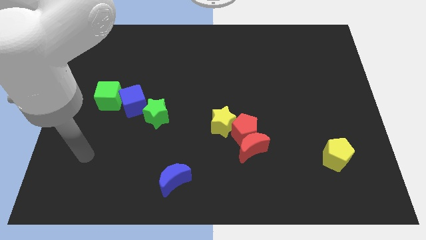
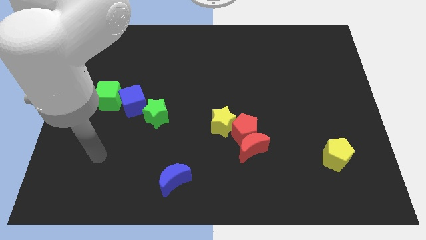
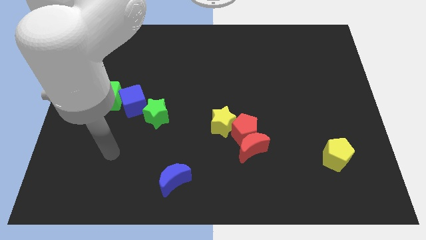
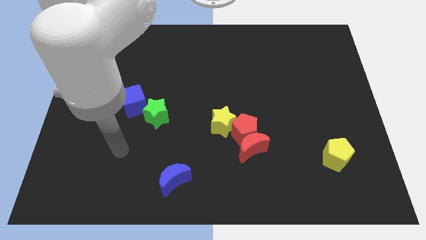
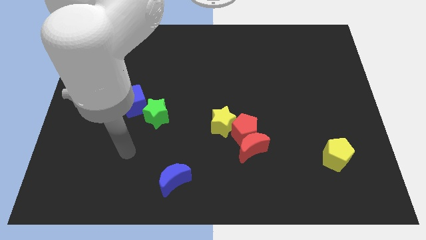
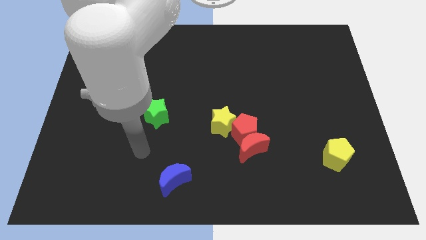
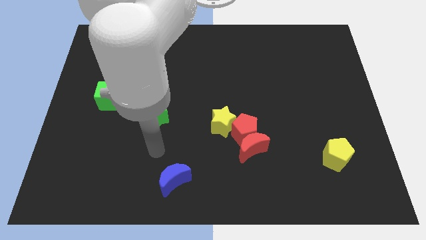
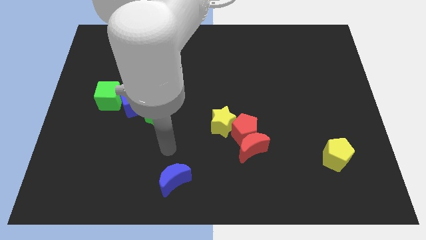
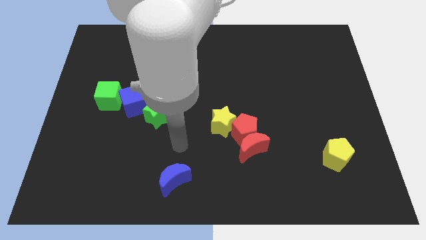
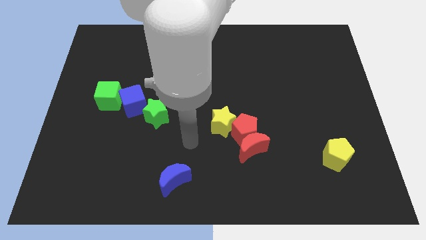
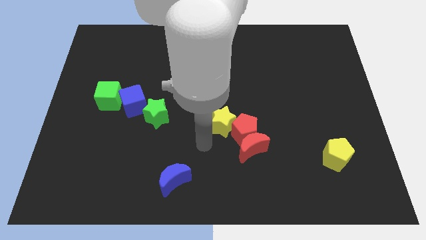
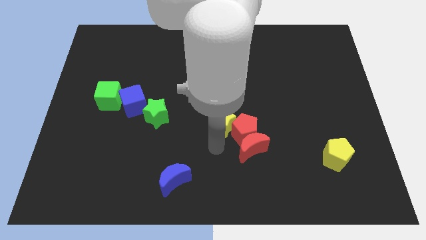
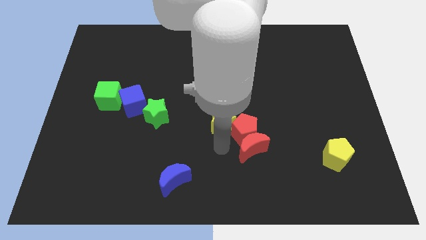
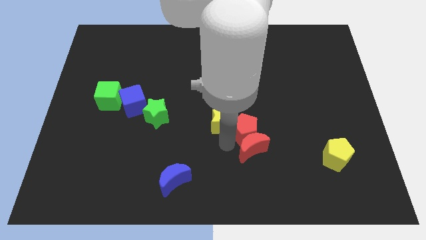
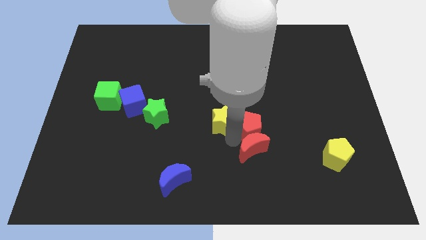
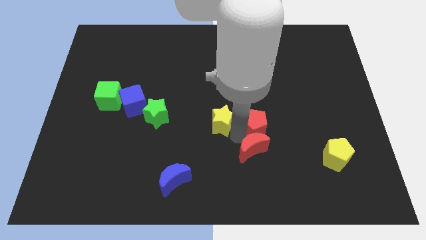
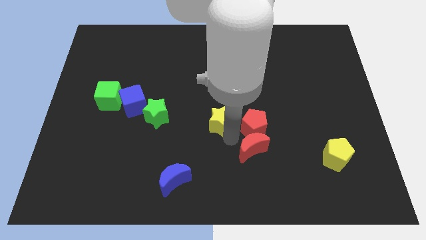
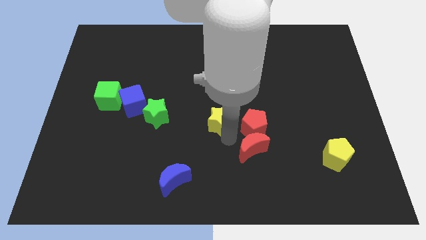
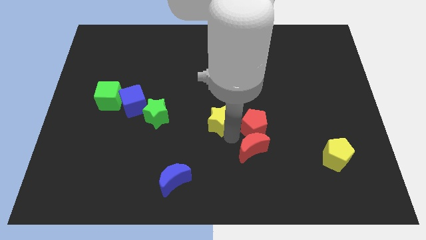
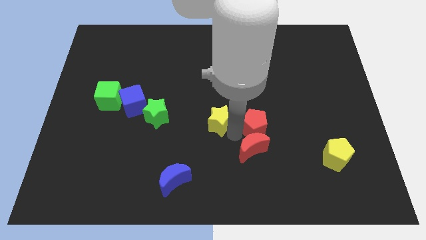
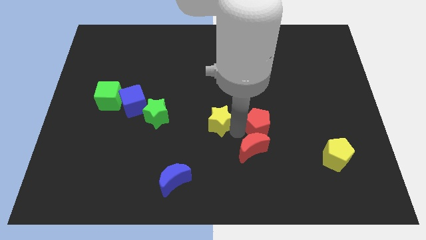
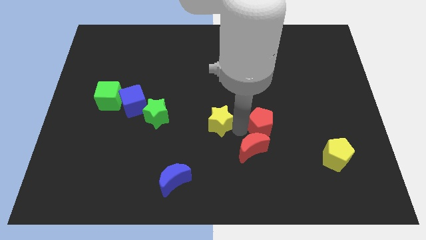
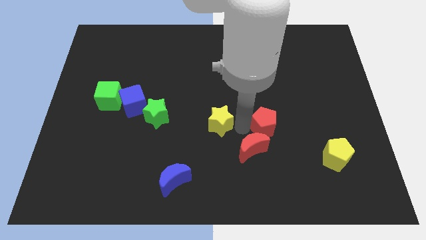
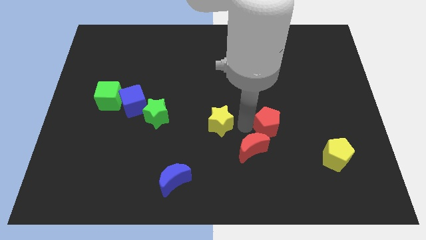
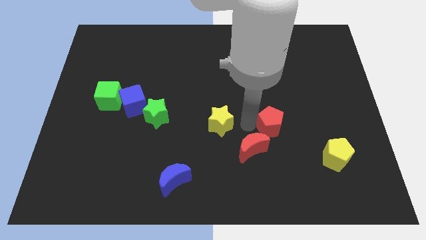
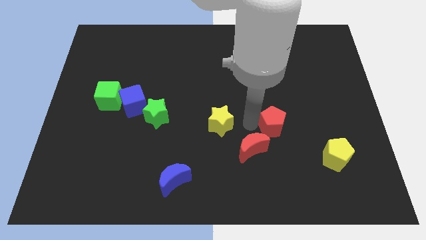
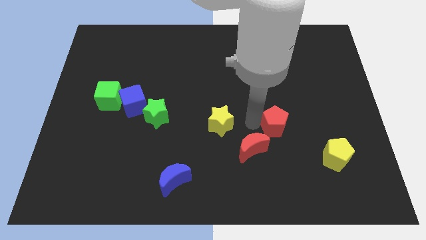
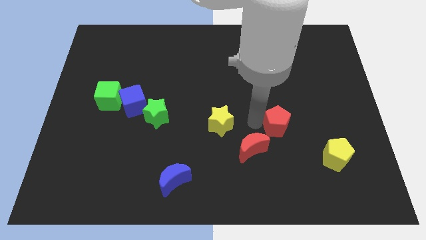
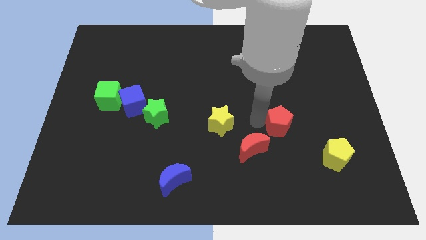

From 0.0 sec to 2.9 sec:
pull the red pentagon apart from the red moon and yellow star

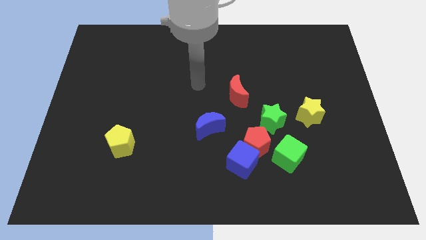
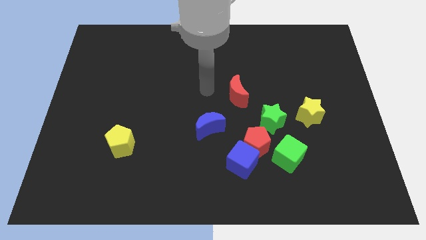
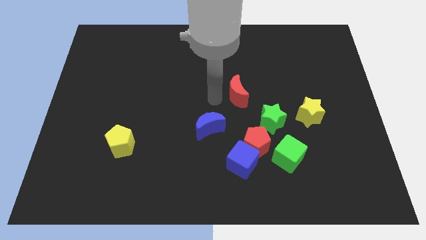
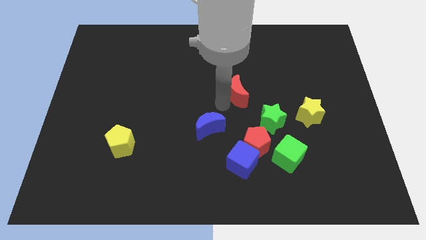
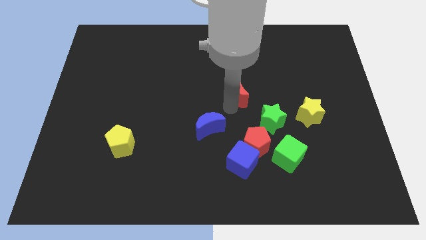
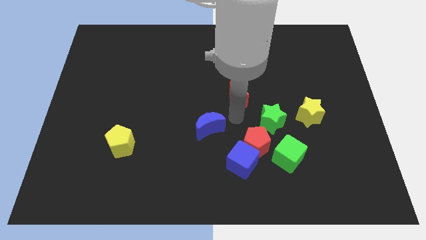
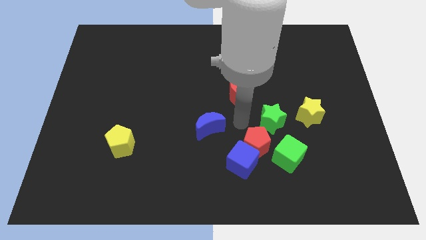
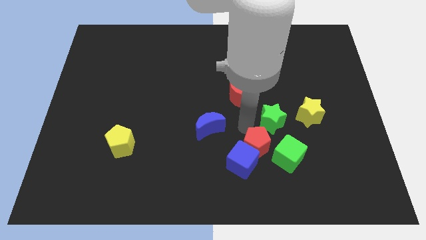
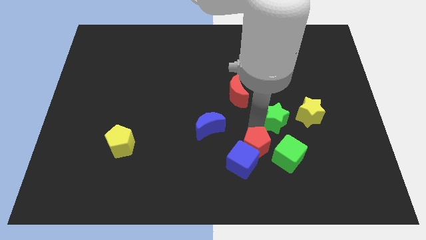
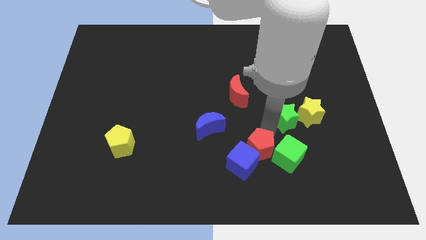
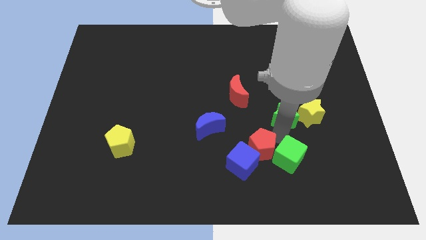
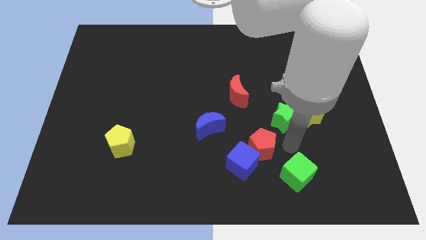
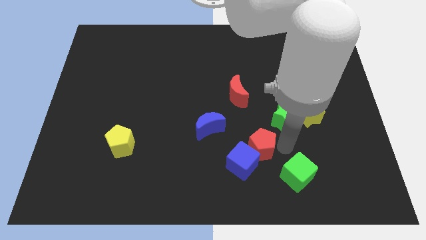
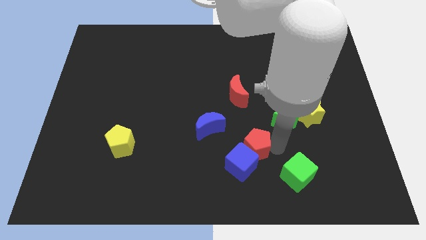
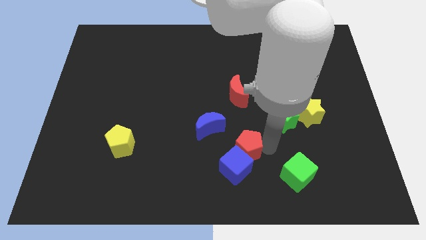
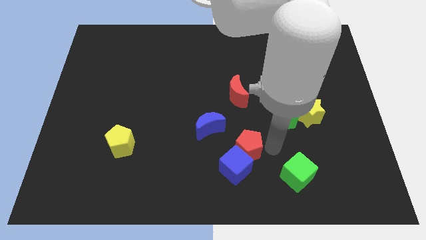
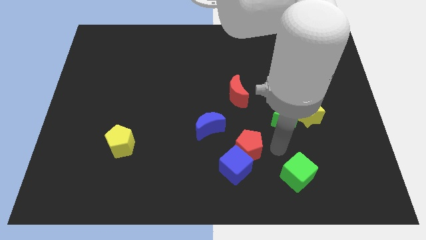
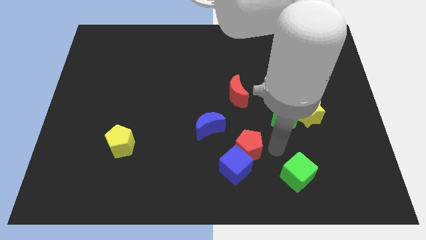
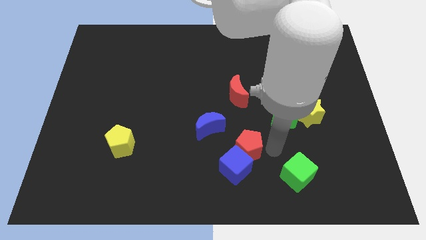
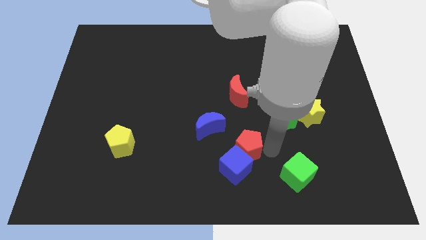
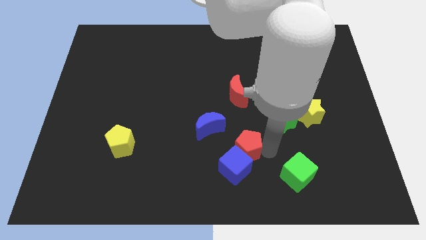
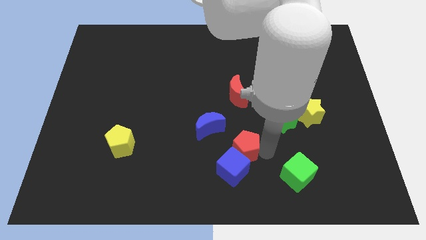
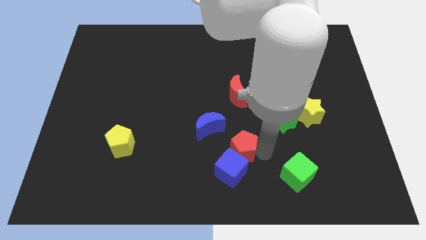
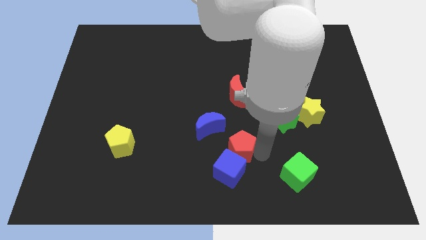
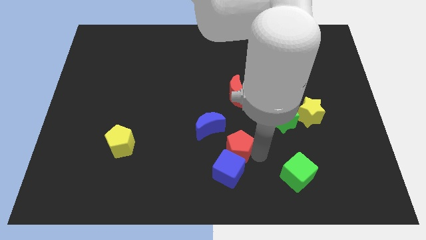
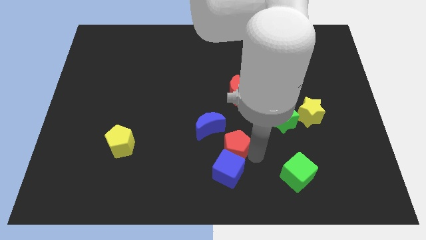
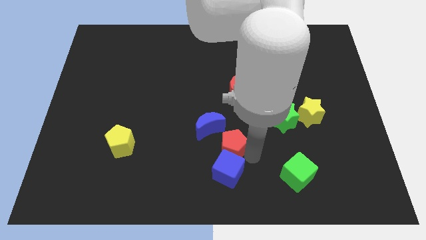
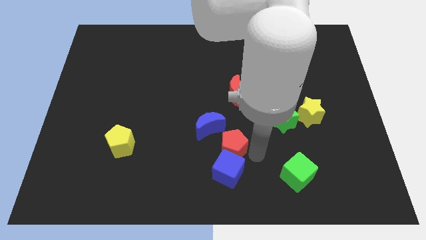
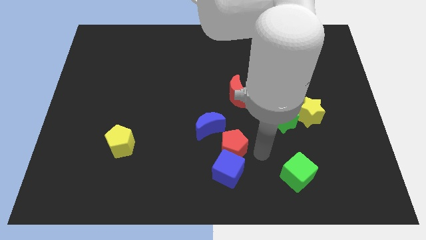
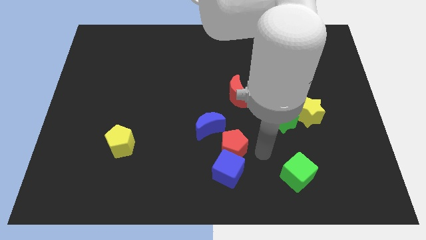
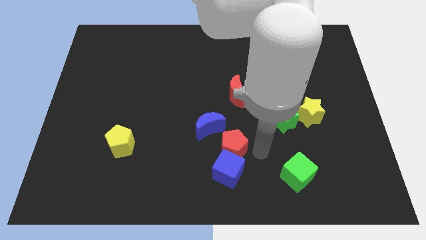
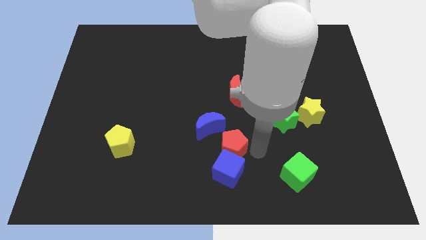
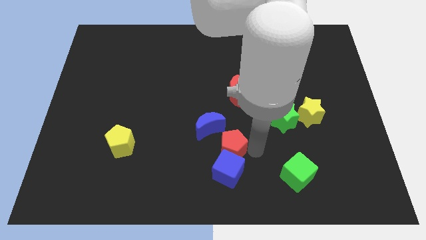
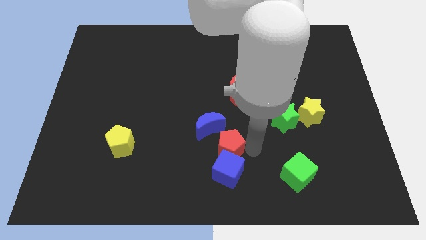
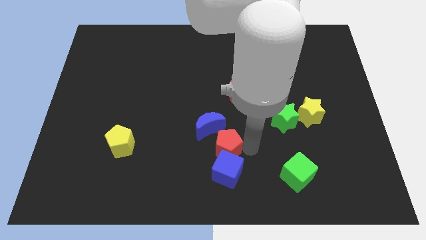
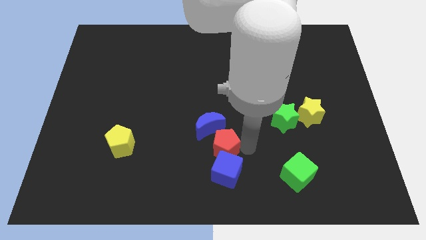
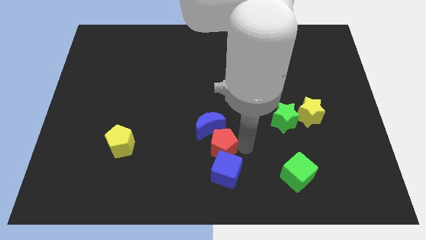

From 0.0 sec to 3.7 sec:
move the red pentagon away from the blue cube, green cube, and green star

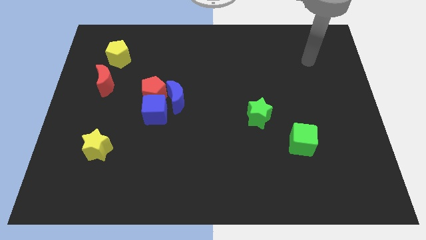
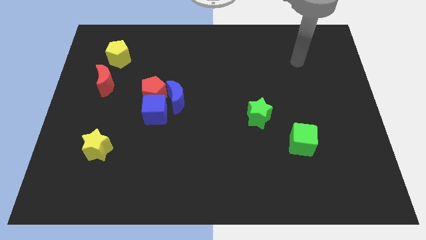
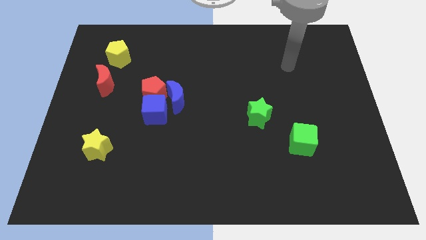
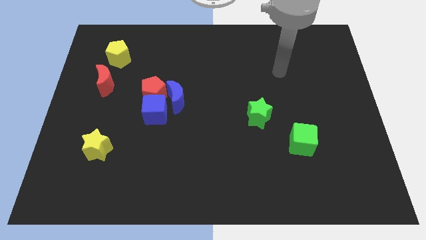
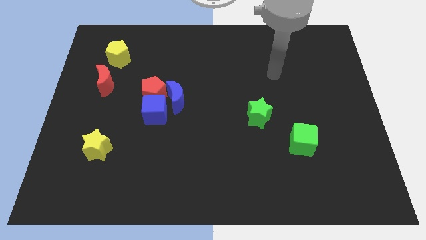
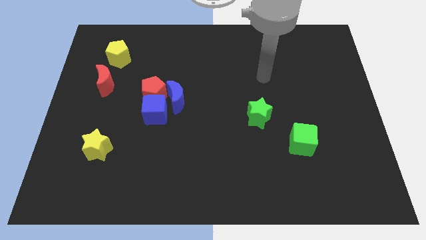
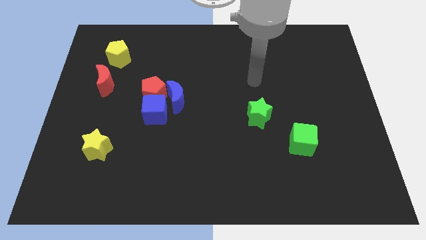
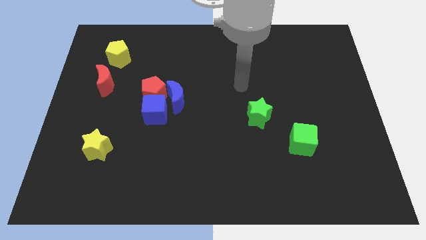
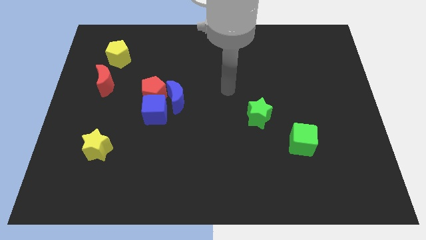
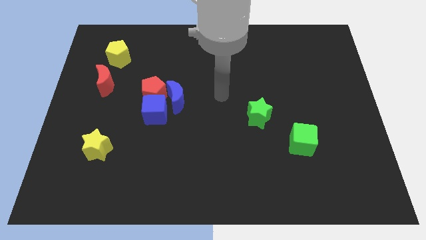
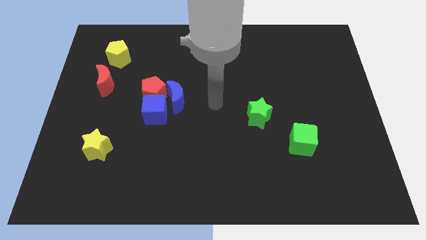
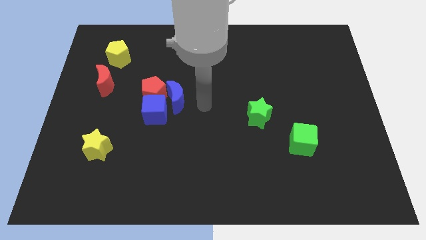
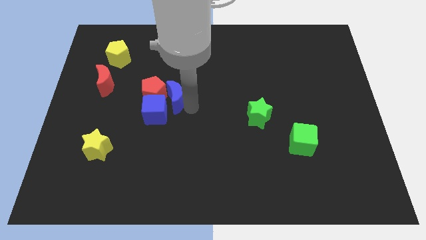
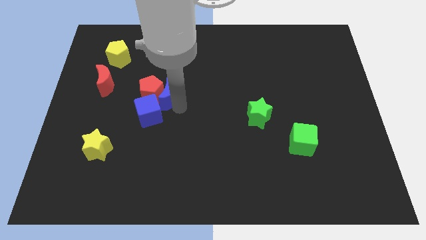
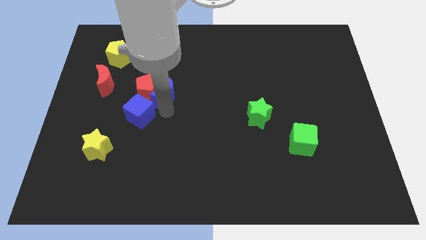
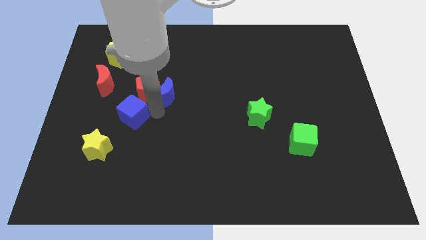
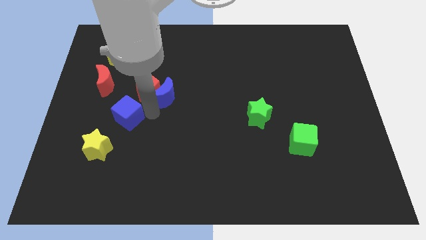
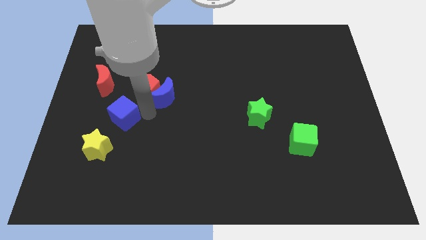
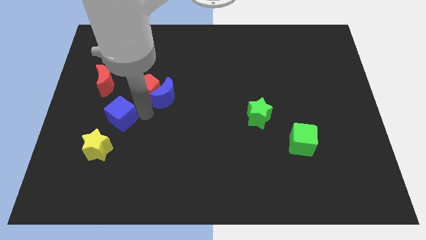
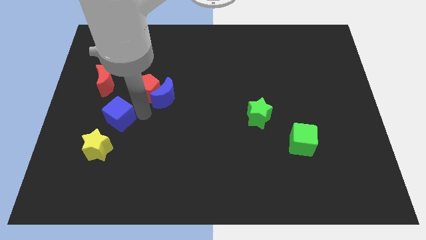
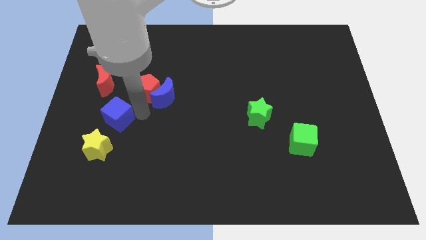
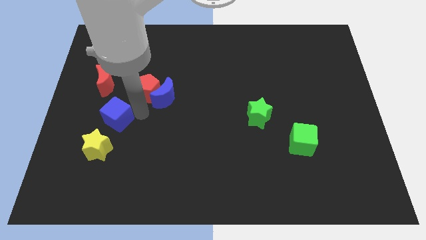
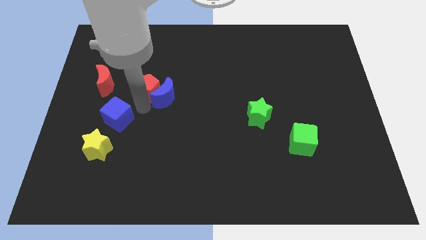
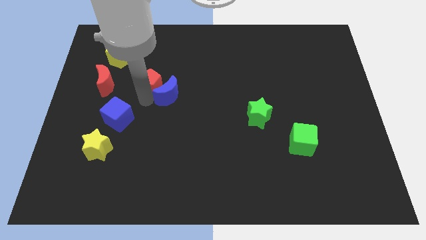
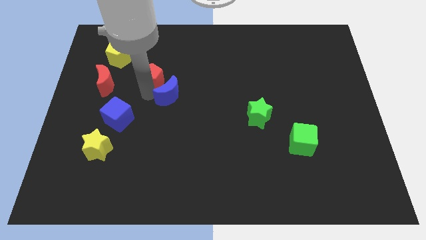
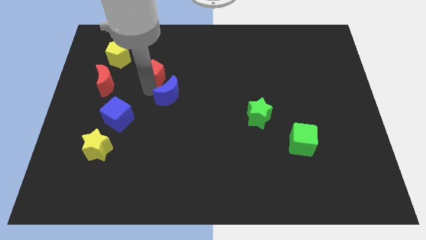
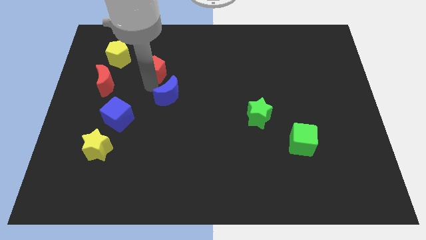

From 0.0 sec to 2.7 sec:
separate the red pentagon from the blue cube and blue moon

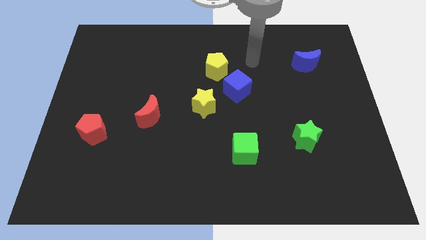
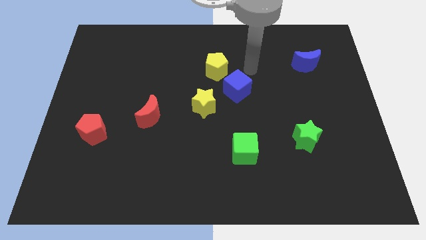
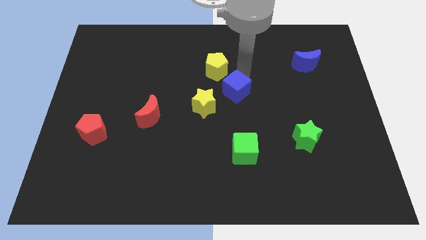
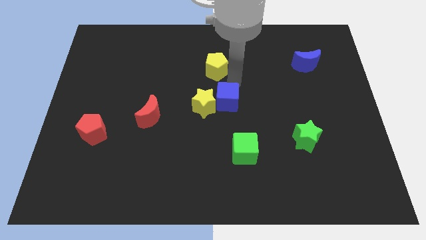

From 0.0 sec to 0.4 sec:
separate the yellow pentagon from the blue cube
